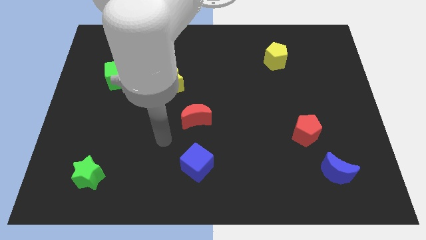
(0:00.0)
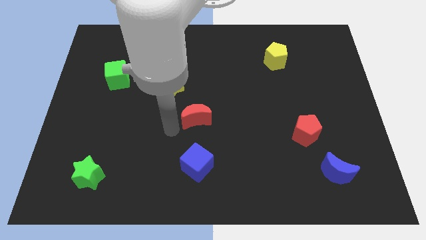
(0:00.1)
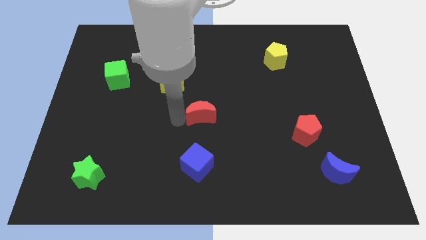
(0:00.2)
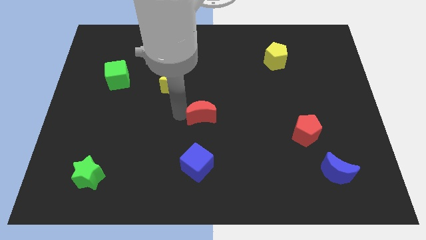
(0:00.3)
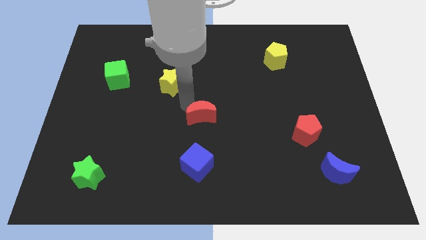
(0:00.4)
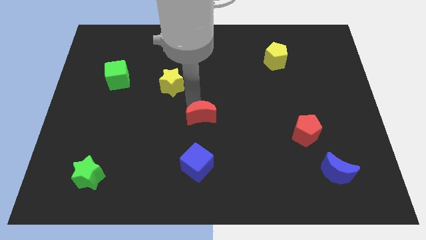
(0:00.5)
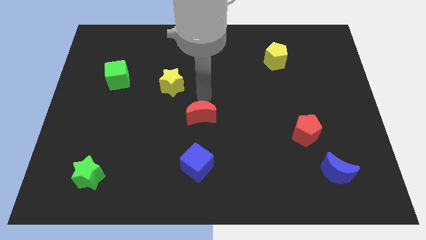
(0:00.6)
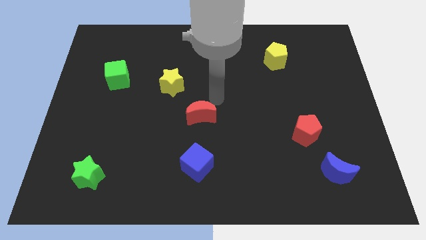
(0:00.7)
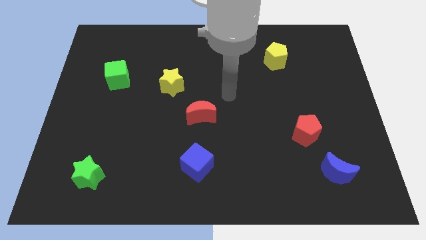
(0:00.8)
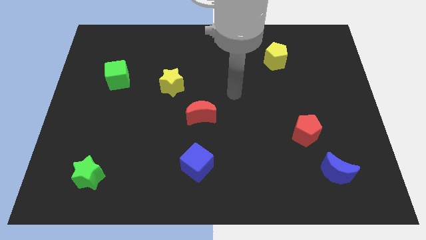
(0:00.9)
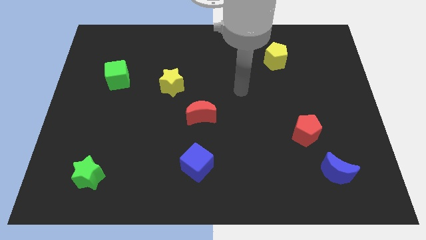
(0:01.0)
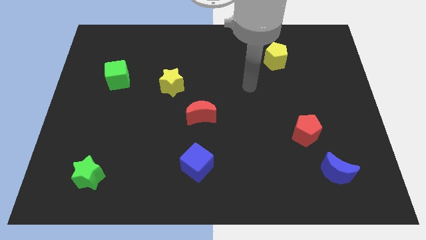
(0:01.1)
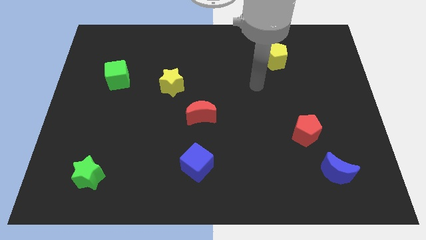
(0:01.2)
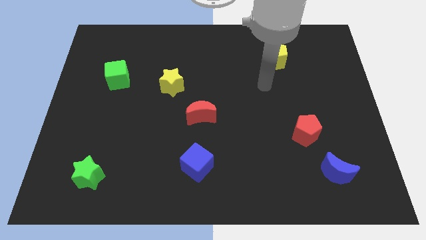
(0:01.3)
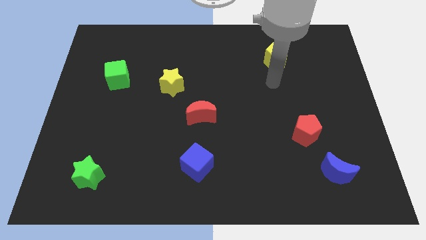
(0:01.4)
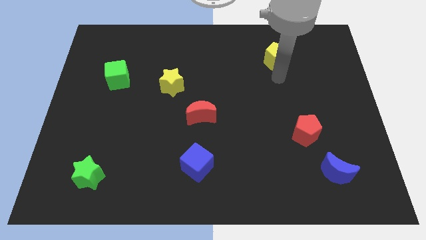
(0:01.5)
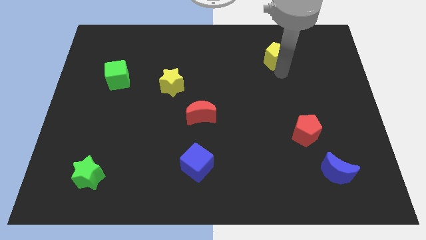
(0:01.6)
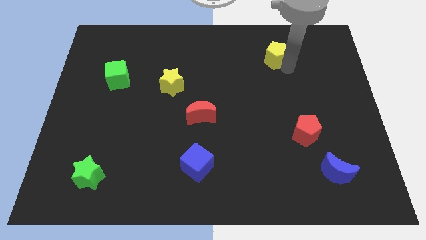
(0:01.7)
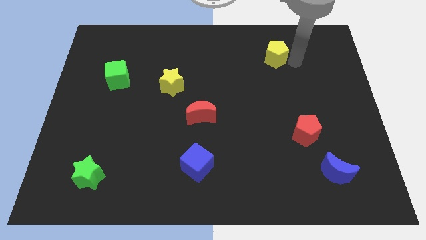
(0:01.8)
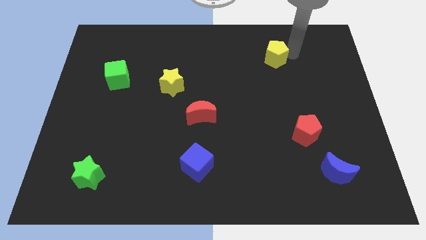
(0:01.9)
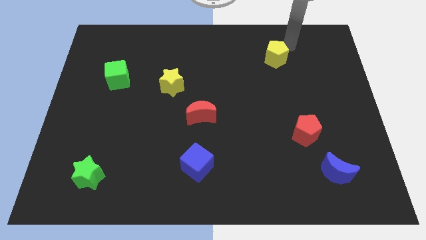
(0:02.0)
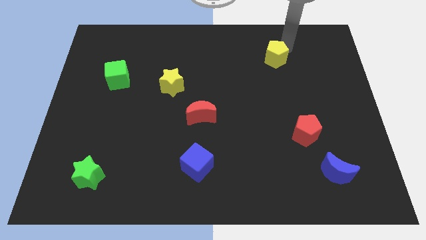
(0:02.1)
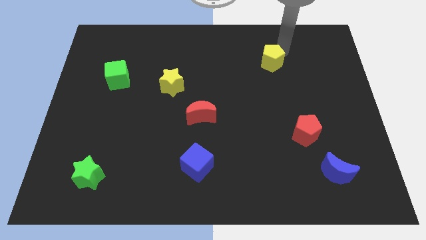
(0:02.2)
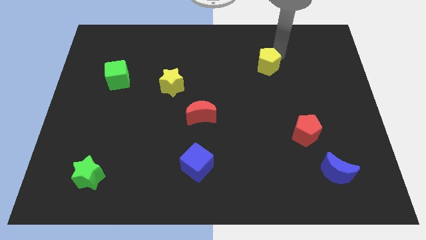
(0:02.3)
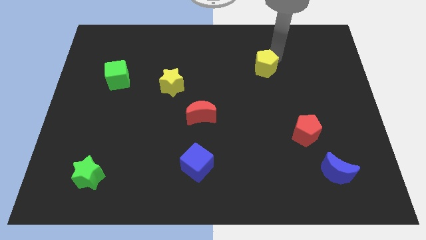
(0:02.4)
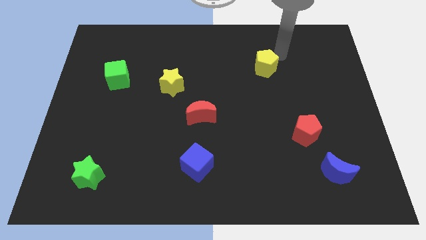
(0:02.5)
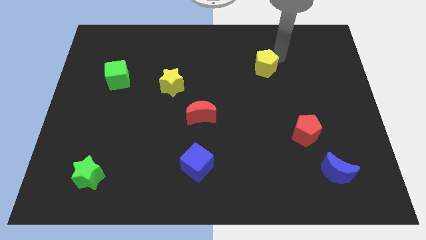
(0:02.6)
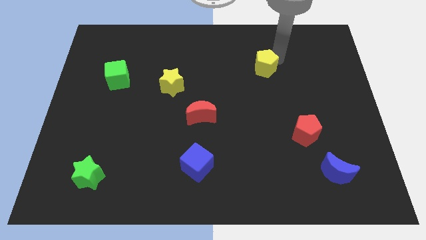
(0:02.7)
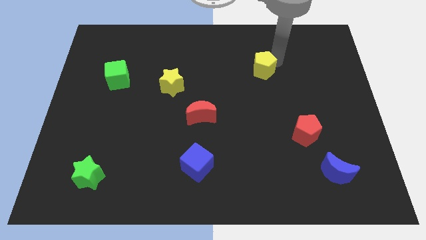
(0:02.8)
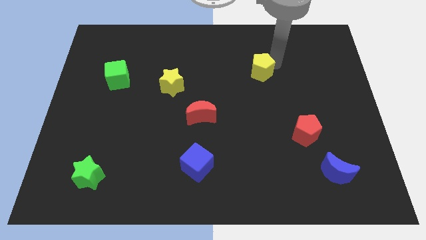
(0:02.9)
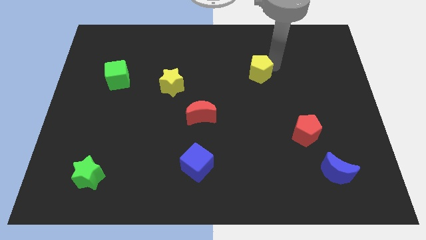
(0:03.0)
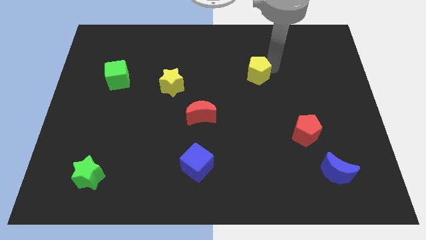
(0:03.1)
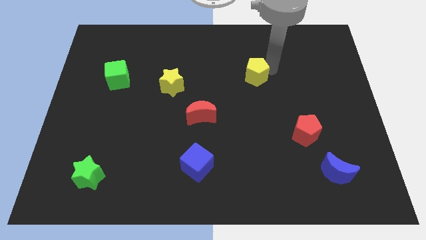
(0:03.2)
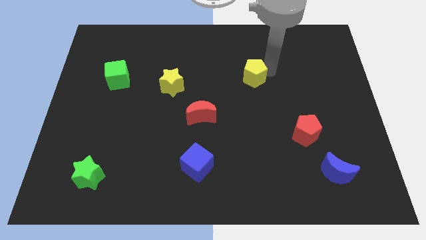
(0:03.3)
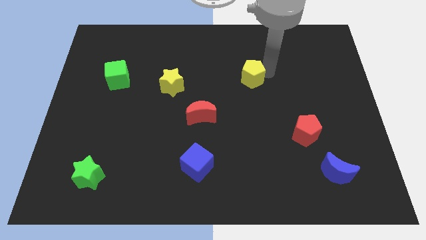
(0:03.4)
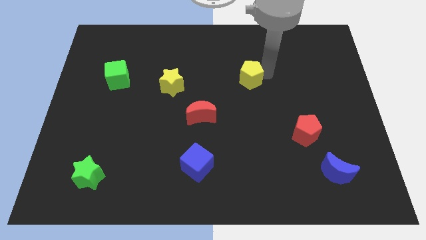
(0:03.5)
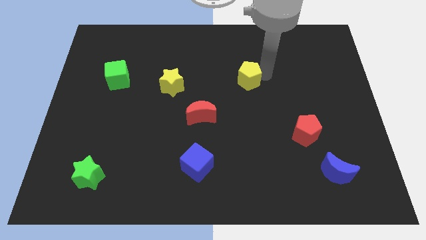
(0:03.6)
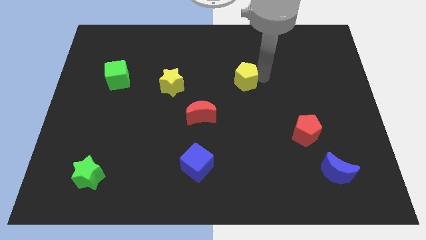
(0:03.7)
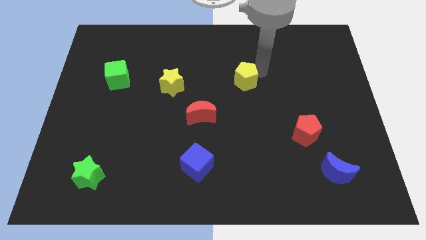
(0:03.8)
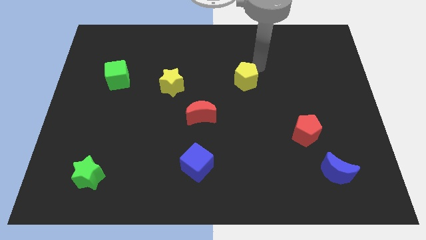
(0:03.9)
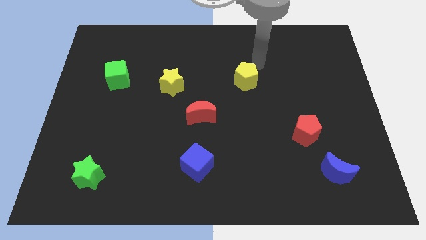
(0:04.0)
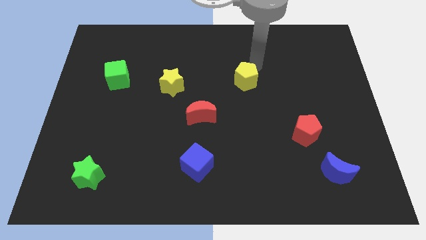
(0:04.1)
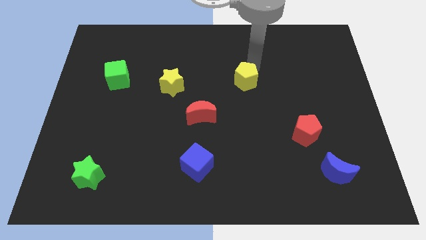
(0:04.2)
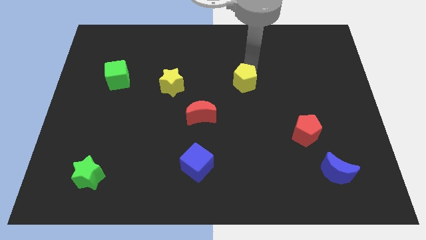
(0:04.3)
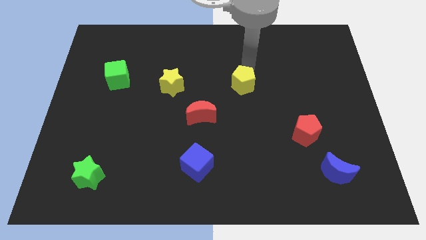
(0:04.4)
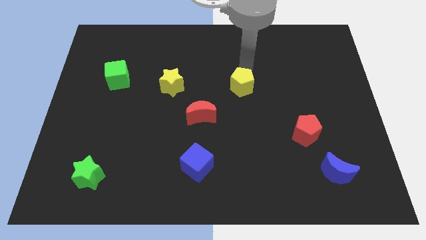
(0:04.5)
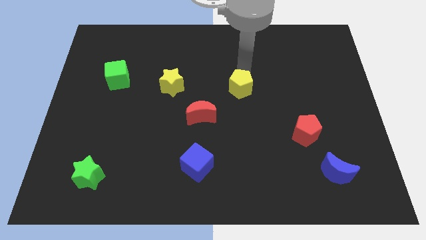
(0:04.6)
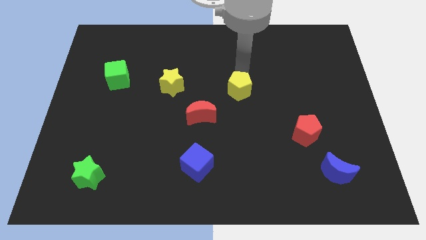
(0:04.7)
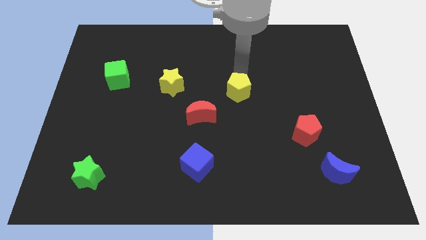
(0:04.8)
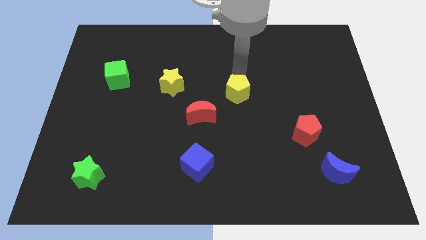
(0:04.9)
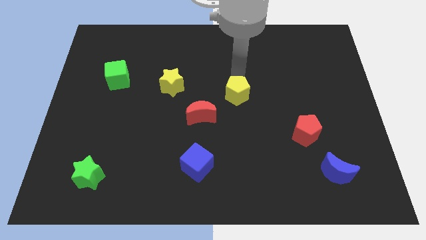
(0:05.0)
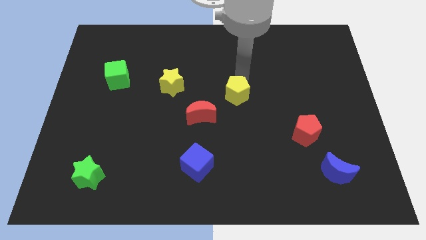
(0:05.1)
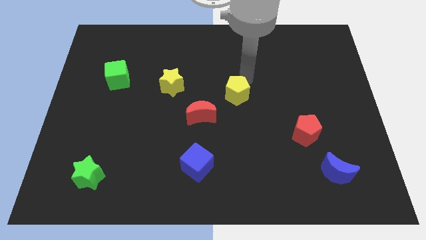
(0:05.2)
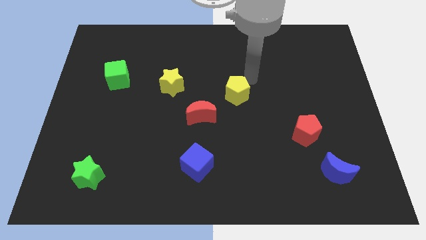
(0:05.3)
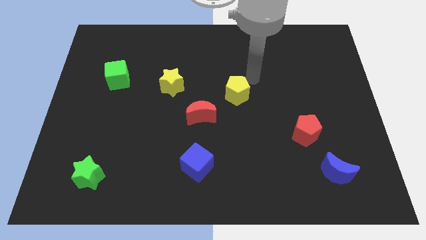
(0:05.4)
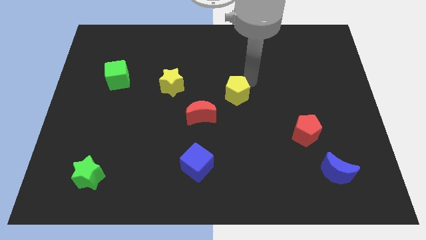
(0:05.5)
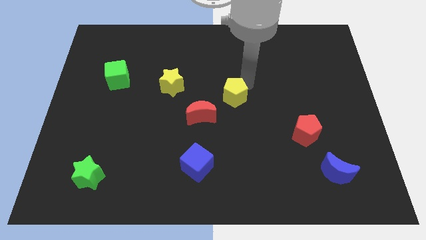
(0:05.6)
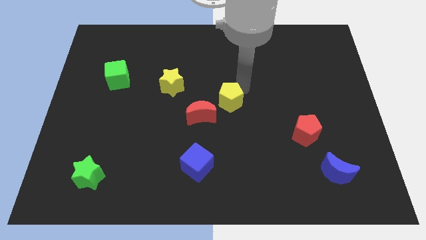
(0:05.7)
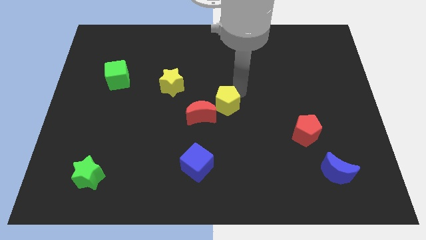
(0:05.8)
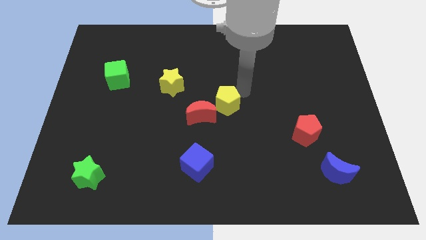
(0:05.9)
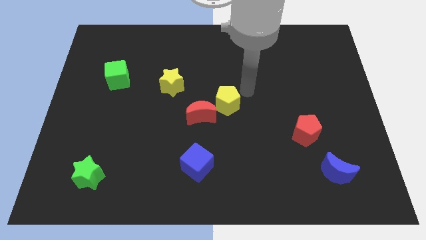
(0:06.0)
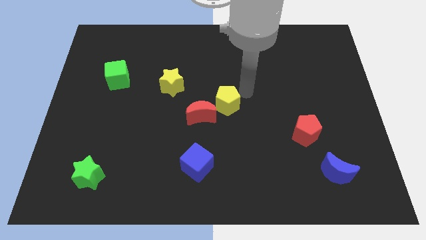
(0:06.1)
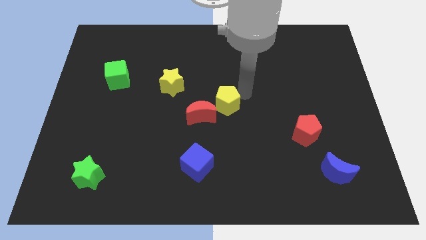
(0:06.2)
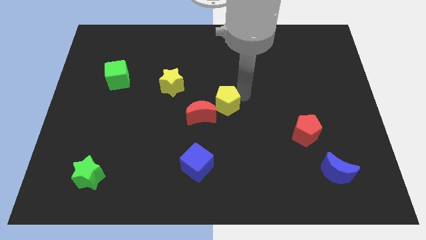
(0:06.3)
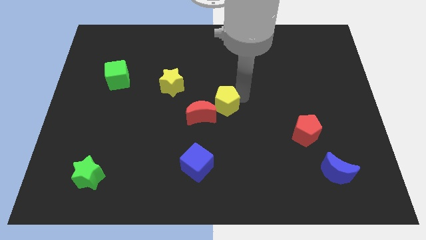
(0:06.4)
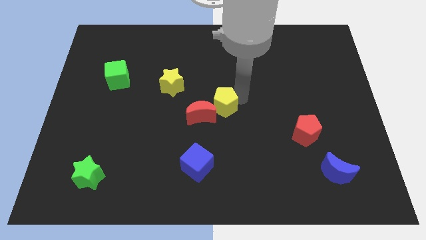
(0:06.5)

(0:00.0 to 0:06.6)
slide the yellow pentagon to the red moon

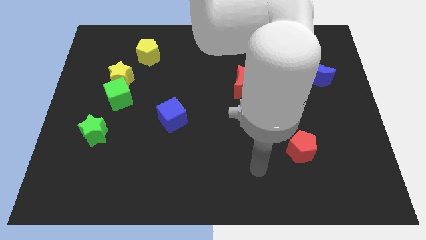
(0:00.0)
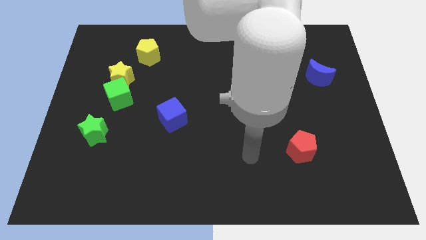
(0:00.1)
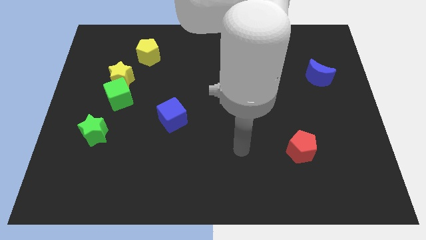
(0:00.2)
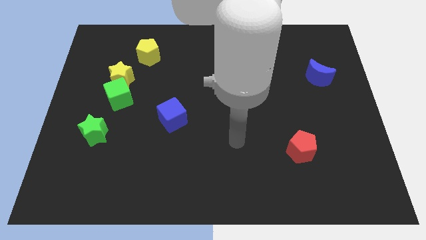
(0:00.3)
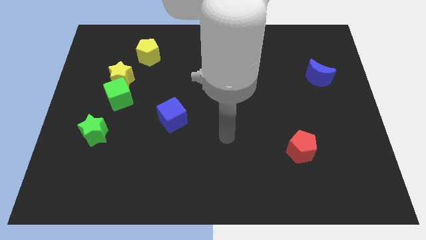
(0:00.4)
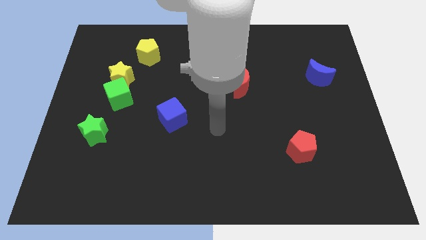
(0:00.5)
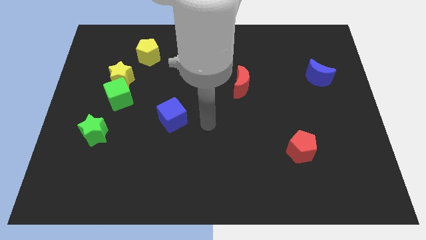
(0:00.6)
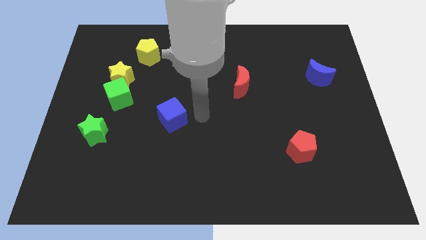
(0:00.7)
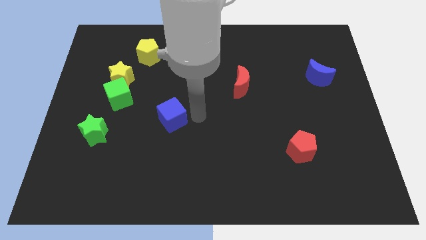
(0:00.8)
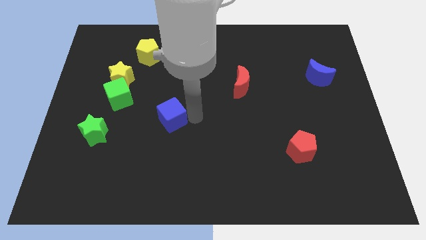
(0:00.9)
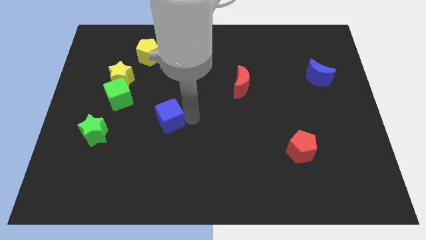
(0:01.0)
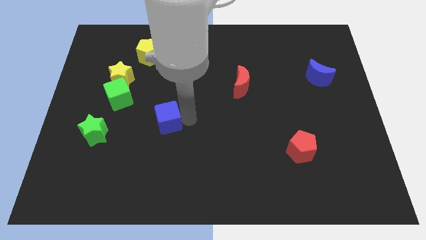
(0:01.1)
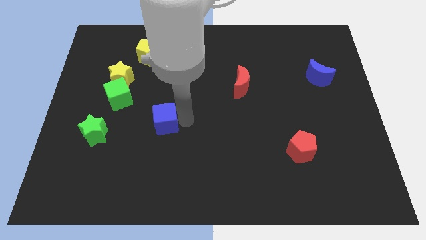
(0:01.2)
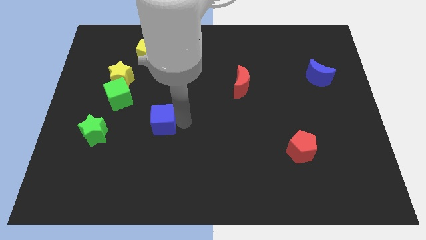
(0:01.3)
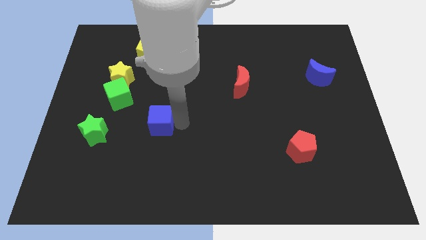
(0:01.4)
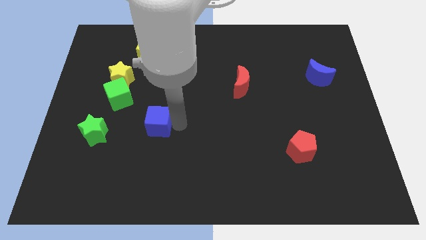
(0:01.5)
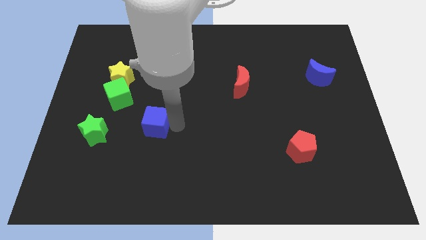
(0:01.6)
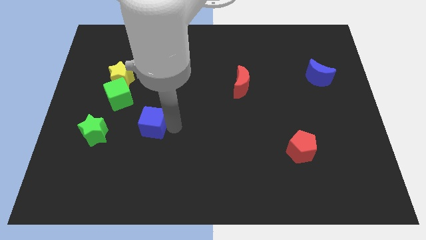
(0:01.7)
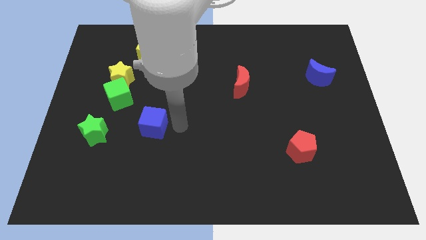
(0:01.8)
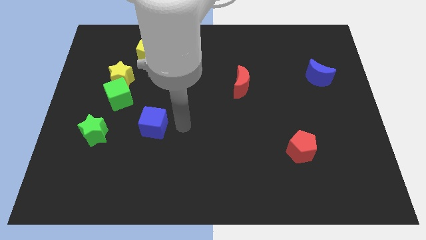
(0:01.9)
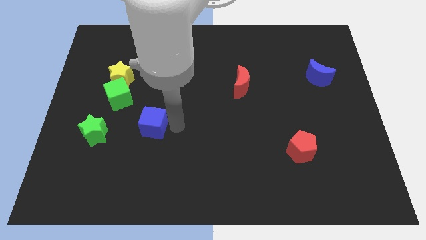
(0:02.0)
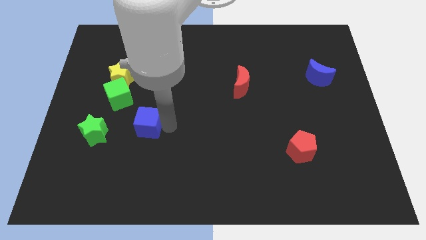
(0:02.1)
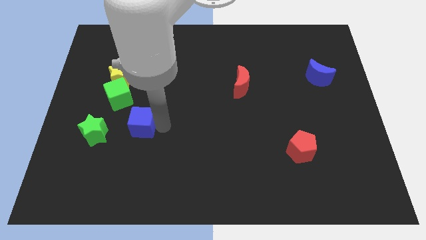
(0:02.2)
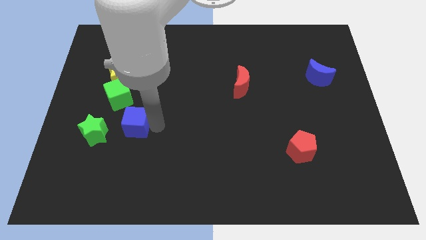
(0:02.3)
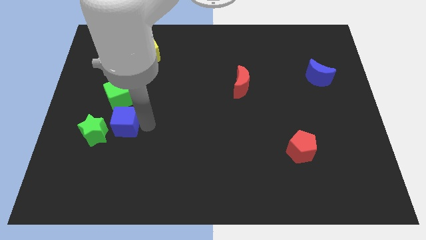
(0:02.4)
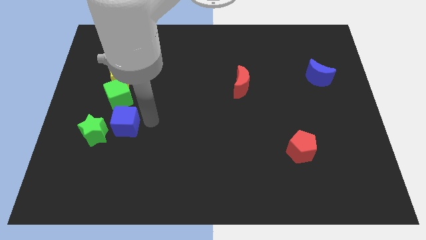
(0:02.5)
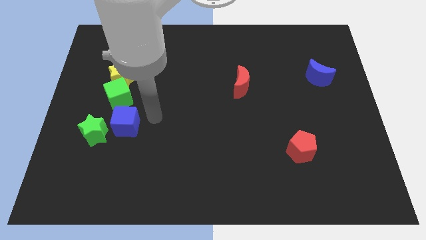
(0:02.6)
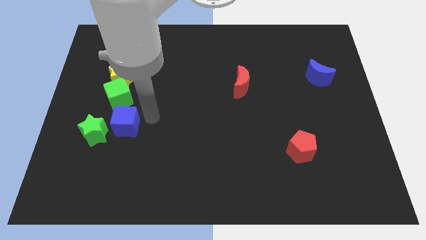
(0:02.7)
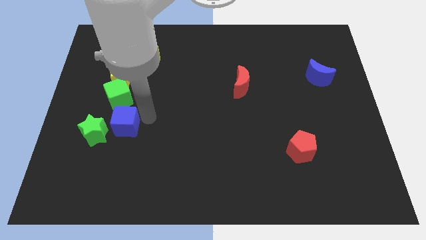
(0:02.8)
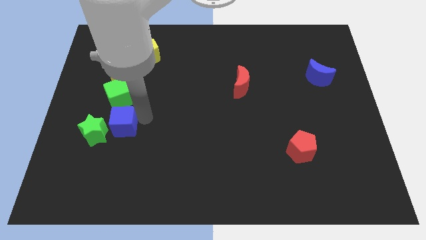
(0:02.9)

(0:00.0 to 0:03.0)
put the blue cube to the green star
